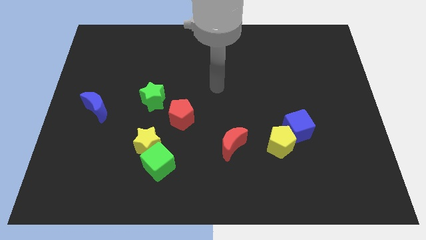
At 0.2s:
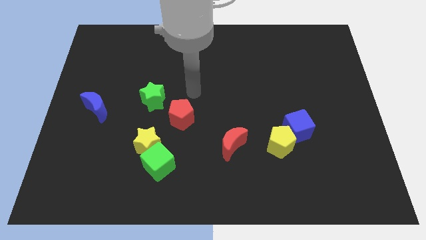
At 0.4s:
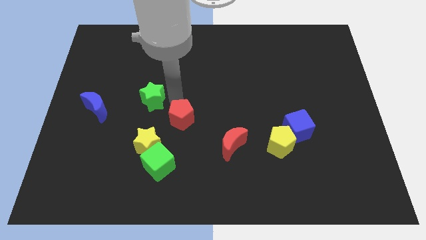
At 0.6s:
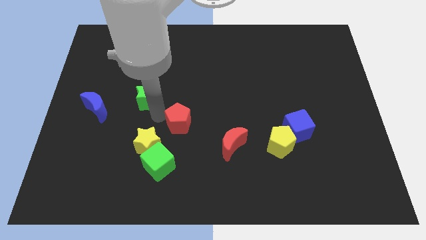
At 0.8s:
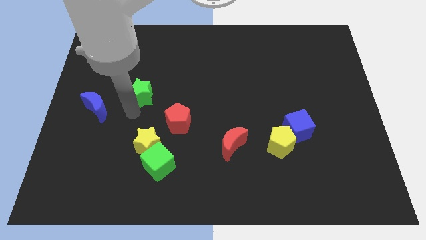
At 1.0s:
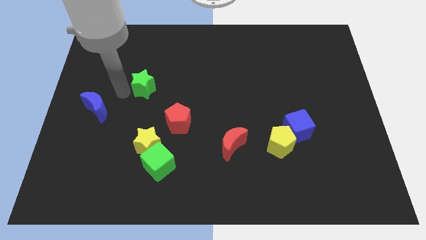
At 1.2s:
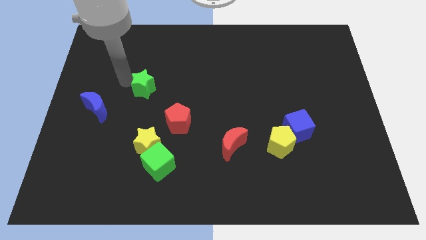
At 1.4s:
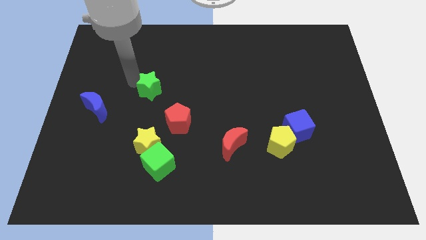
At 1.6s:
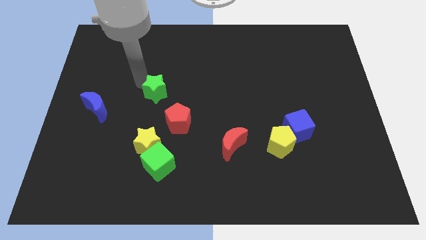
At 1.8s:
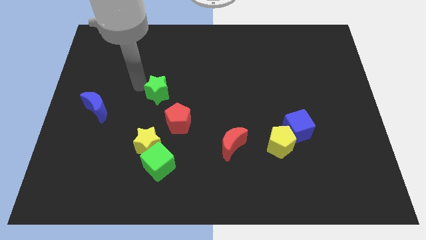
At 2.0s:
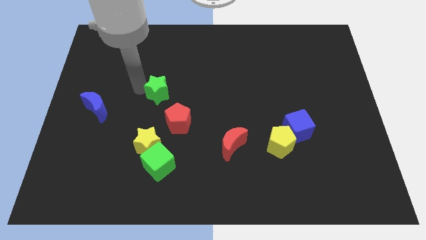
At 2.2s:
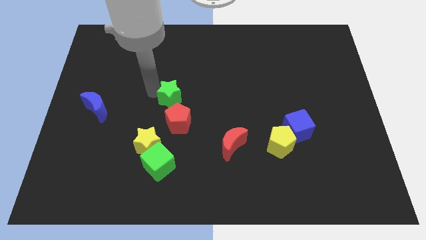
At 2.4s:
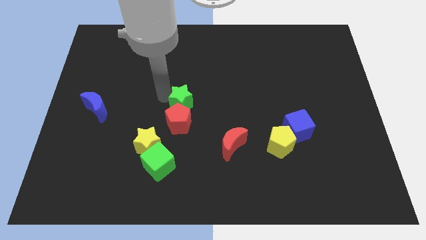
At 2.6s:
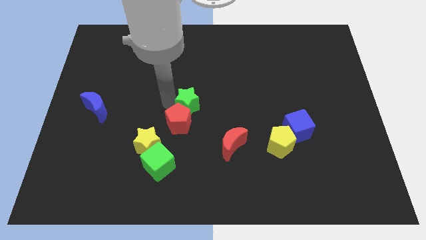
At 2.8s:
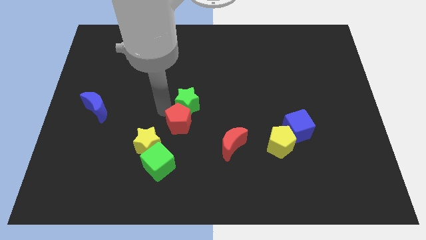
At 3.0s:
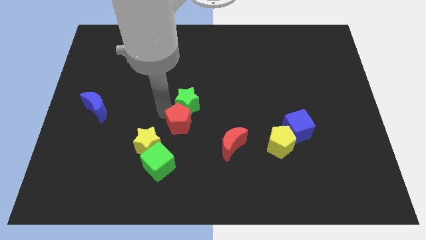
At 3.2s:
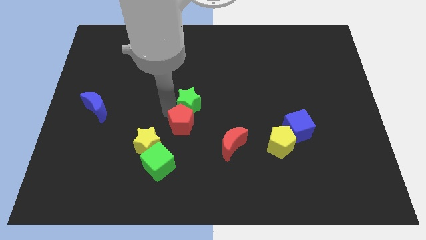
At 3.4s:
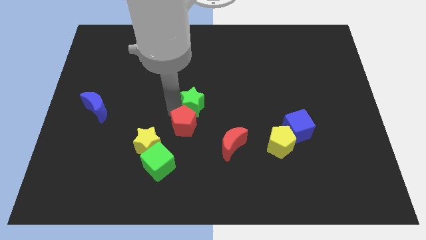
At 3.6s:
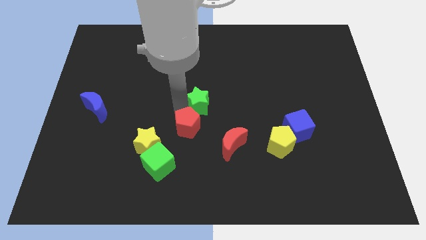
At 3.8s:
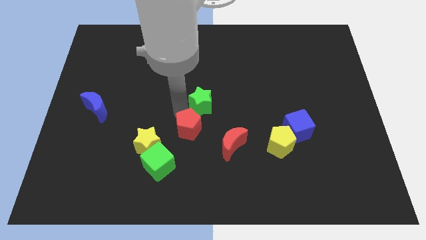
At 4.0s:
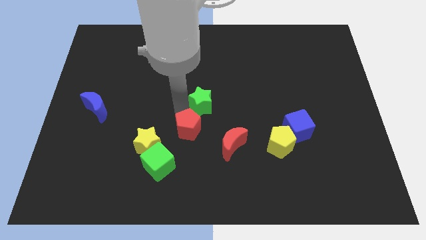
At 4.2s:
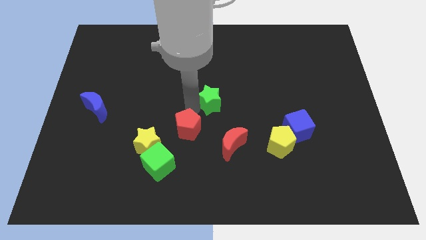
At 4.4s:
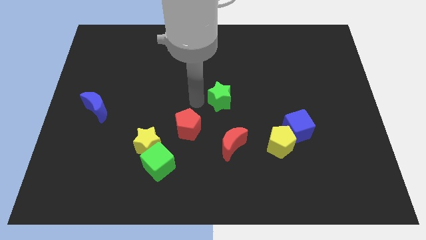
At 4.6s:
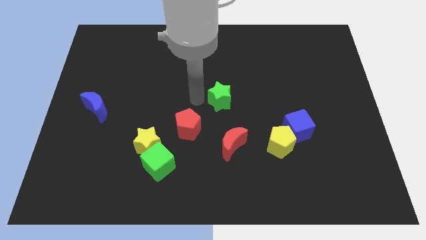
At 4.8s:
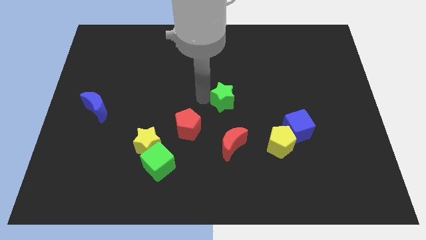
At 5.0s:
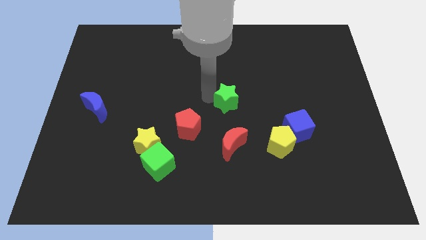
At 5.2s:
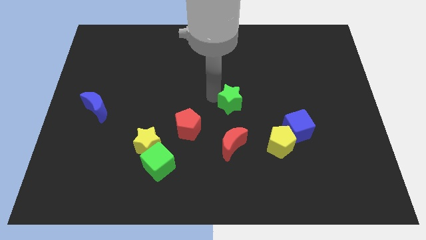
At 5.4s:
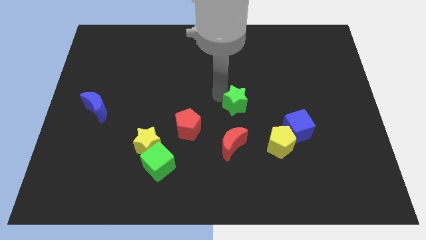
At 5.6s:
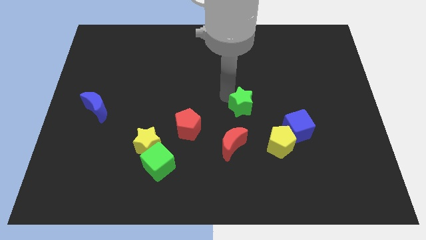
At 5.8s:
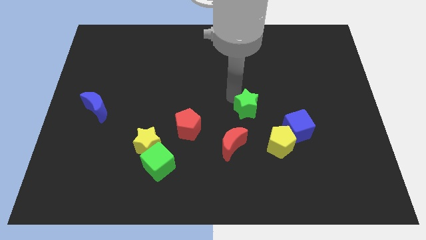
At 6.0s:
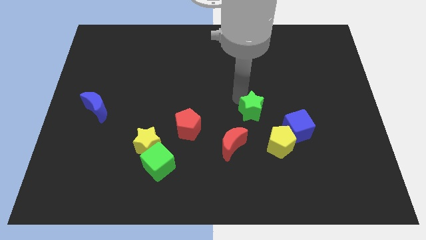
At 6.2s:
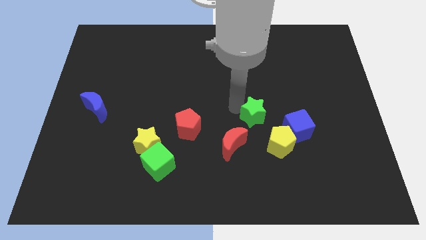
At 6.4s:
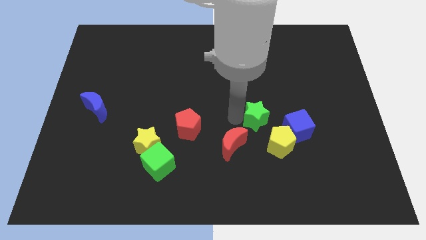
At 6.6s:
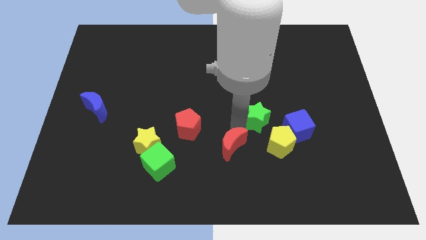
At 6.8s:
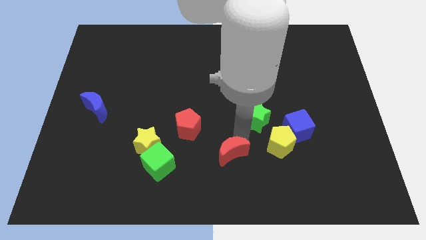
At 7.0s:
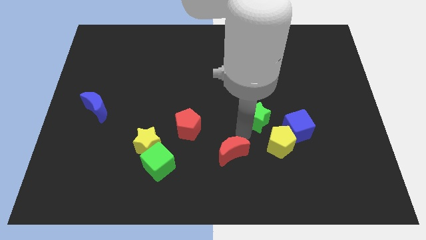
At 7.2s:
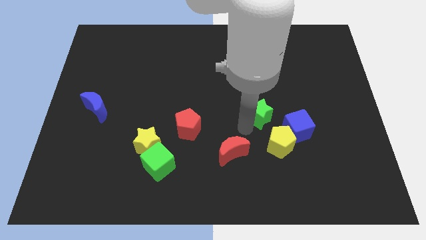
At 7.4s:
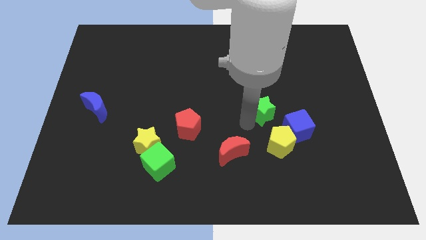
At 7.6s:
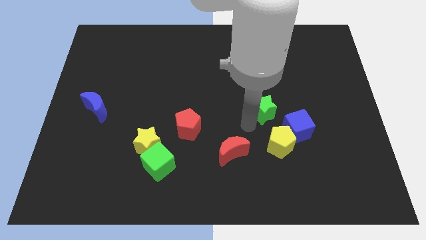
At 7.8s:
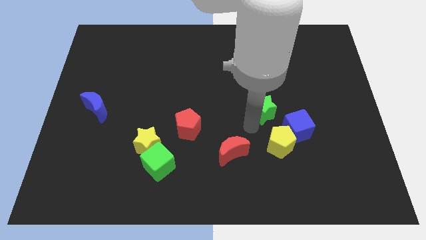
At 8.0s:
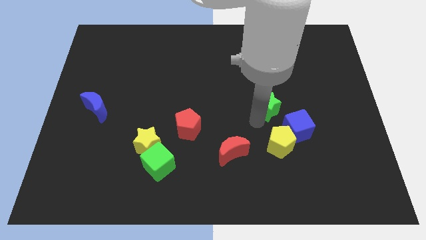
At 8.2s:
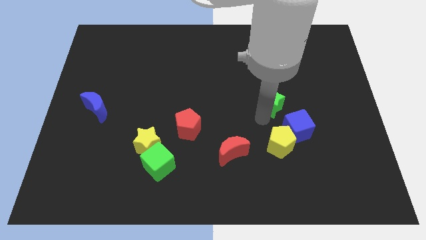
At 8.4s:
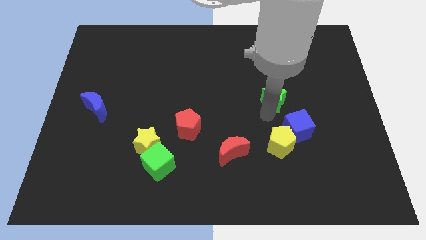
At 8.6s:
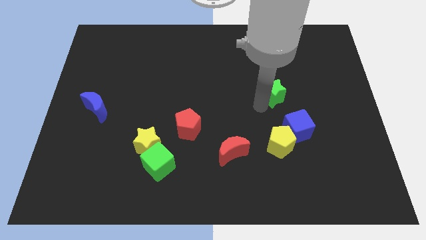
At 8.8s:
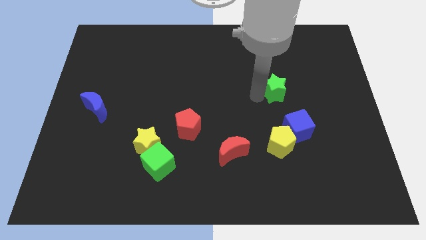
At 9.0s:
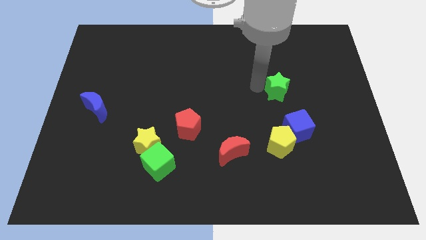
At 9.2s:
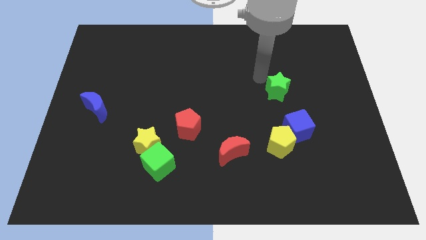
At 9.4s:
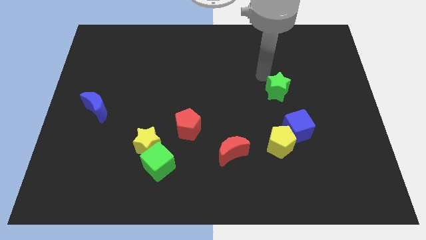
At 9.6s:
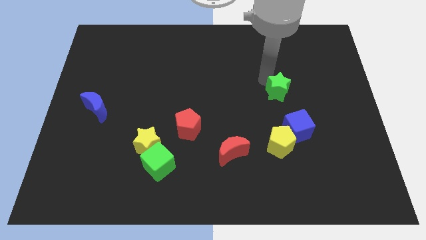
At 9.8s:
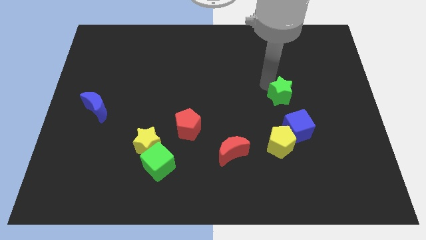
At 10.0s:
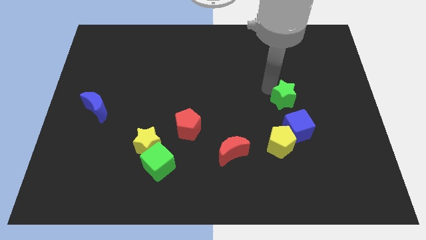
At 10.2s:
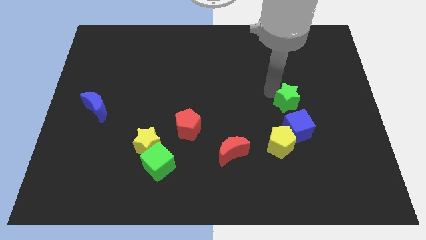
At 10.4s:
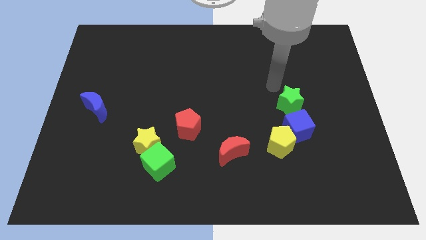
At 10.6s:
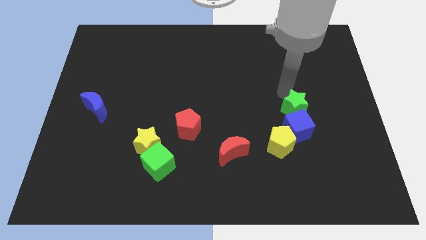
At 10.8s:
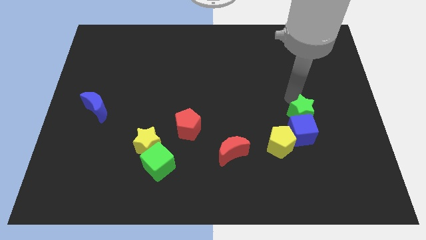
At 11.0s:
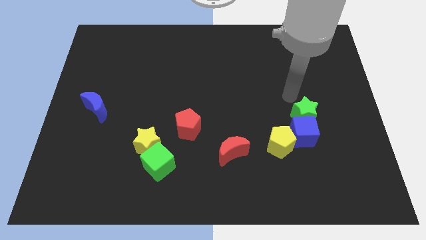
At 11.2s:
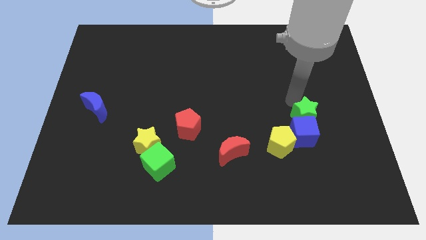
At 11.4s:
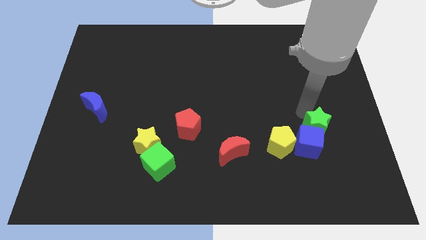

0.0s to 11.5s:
push the green star to the right side of the yellow pentagon

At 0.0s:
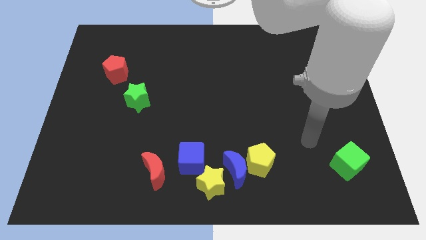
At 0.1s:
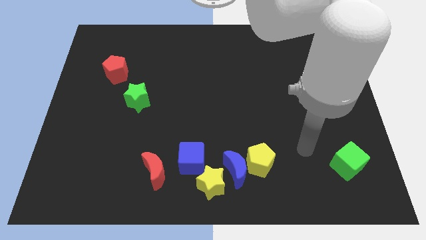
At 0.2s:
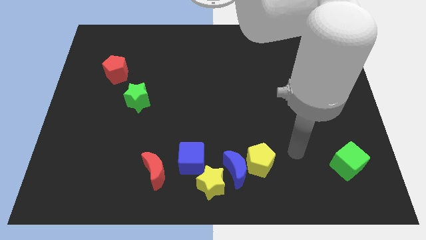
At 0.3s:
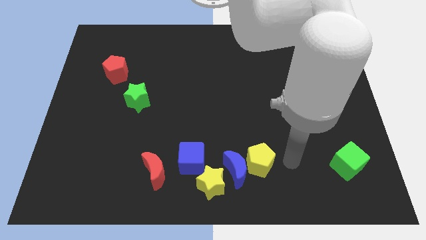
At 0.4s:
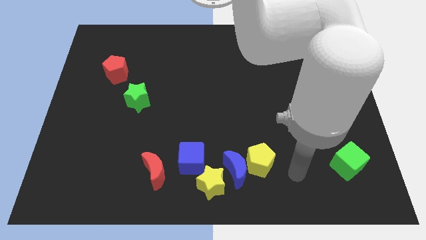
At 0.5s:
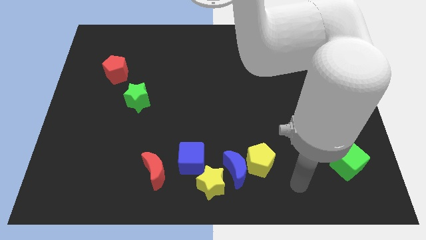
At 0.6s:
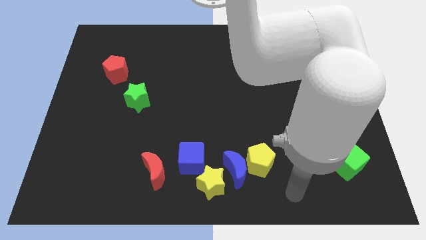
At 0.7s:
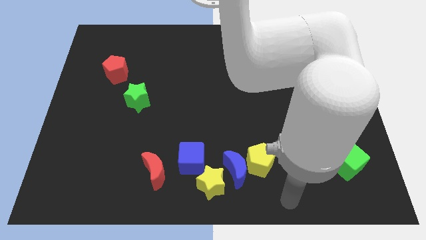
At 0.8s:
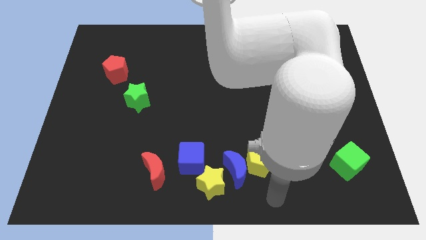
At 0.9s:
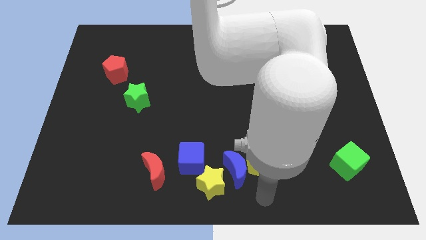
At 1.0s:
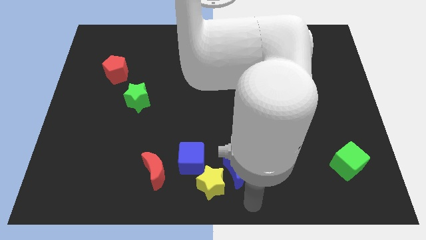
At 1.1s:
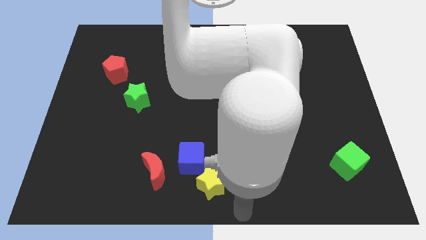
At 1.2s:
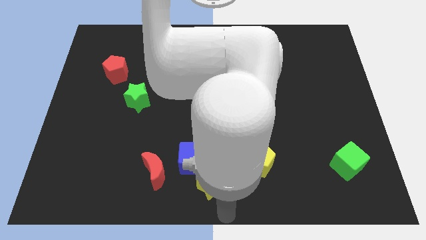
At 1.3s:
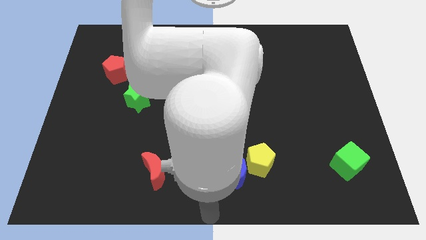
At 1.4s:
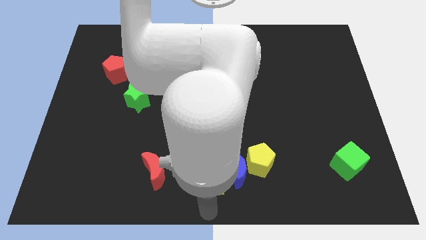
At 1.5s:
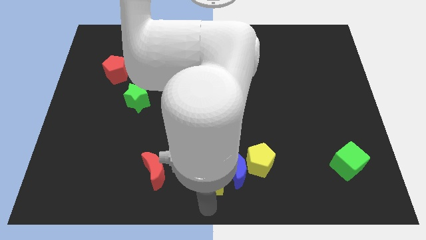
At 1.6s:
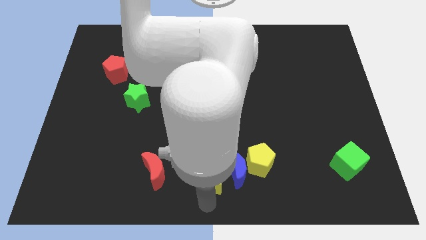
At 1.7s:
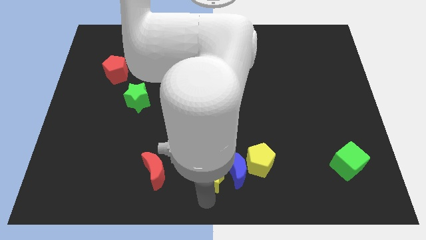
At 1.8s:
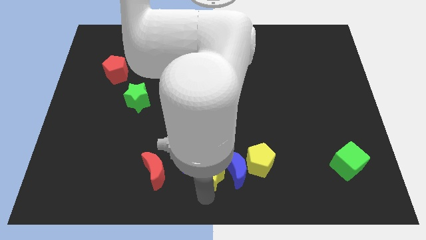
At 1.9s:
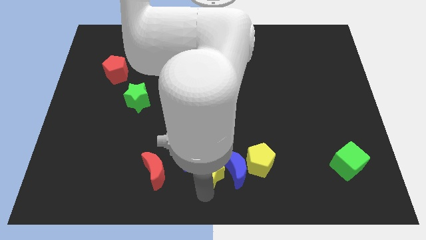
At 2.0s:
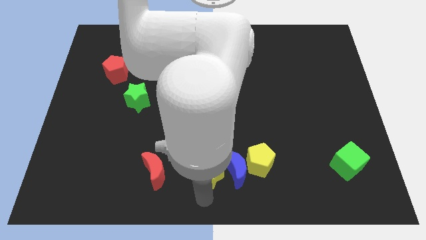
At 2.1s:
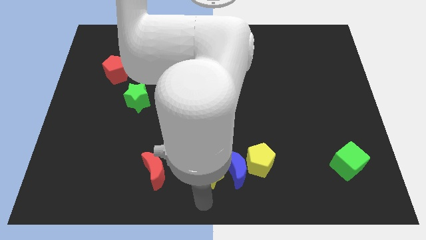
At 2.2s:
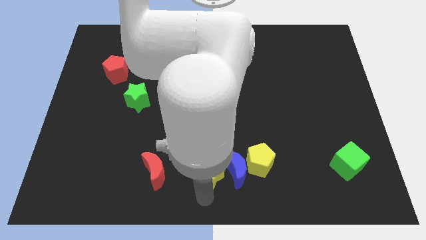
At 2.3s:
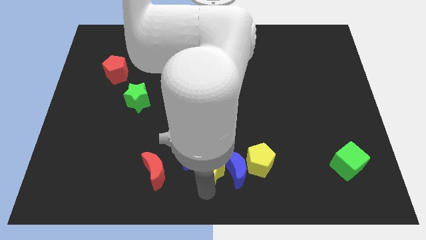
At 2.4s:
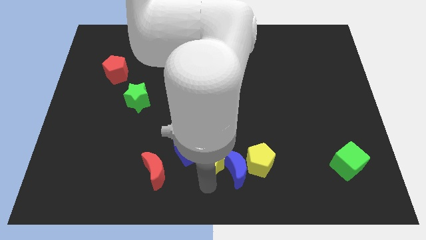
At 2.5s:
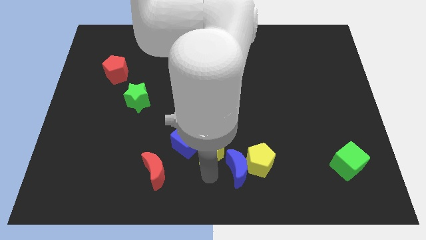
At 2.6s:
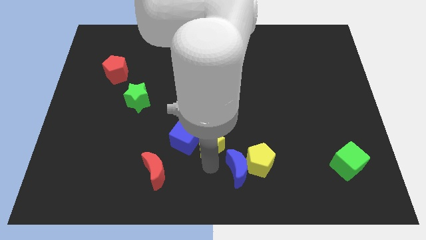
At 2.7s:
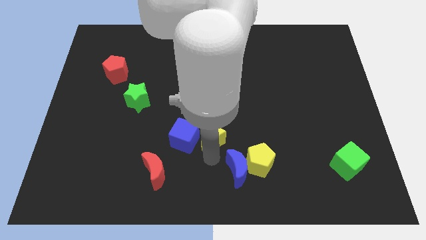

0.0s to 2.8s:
put the yellow star diagonally up and to the right of the blue cube
